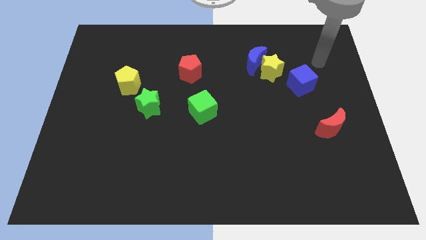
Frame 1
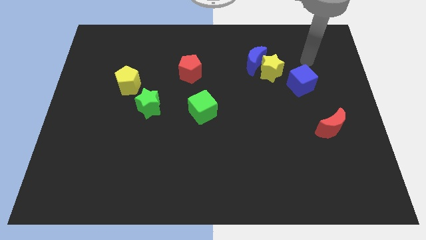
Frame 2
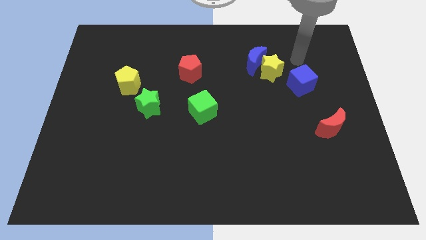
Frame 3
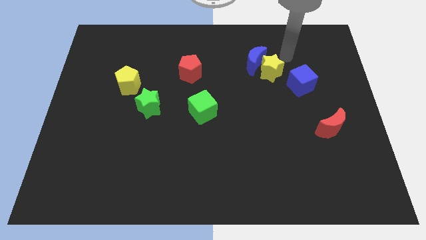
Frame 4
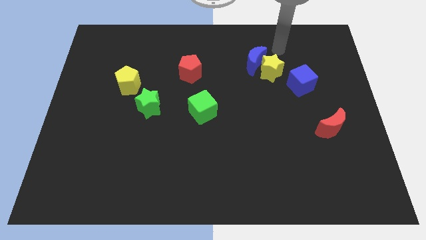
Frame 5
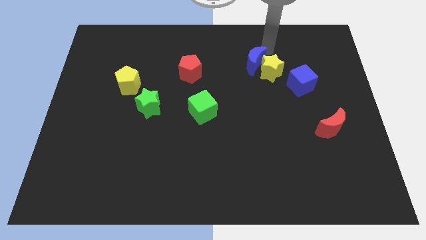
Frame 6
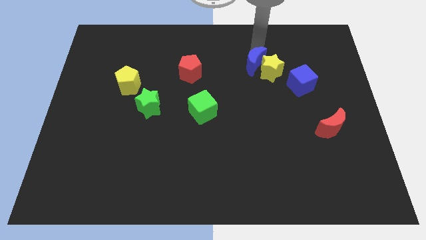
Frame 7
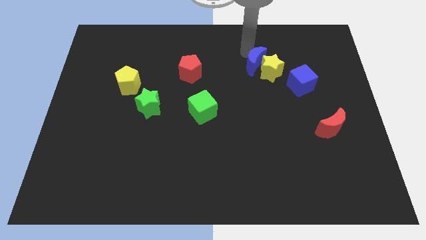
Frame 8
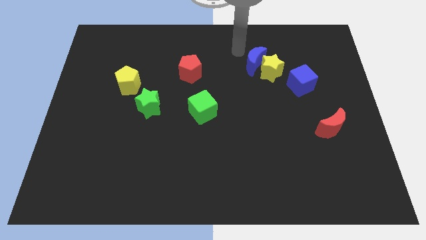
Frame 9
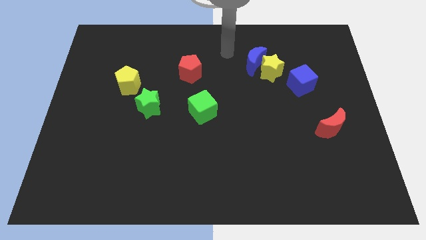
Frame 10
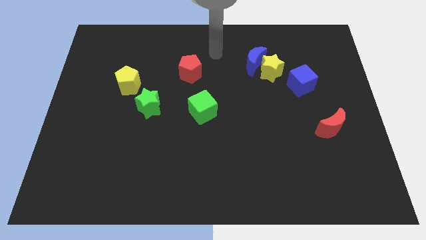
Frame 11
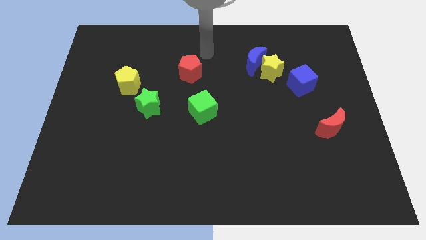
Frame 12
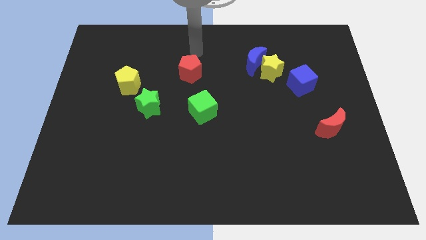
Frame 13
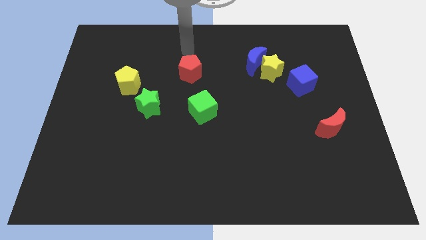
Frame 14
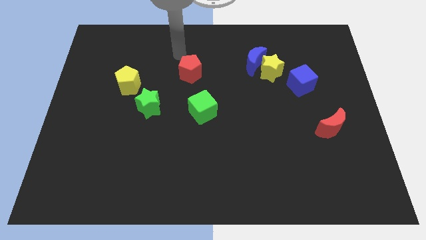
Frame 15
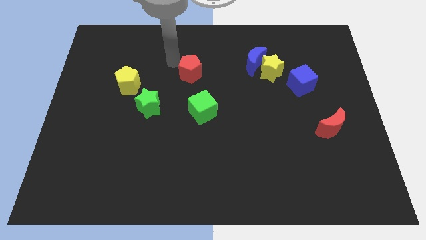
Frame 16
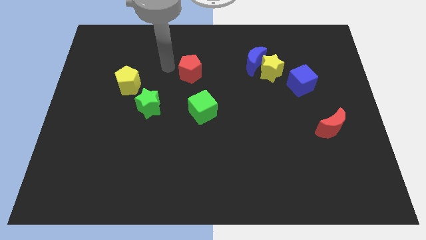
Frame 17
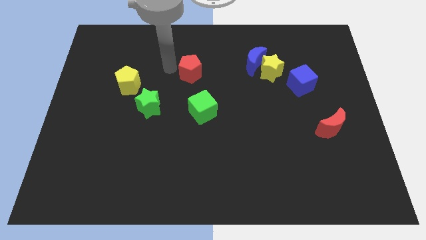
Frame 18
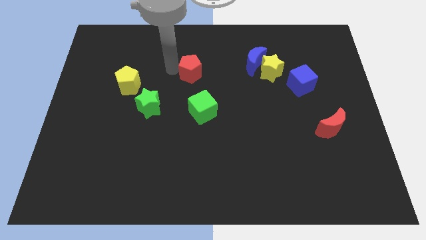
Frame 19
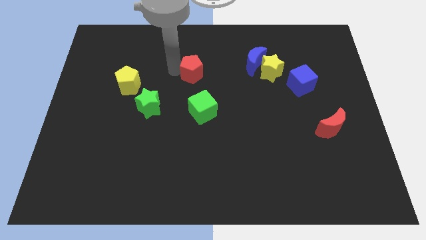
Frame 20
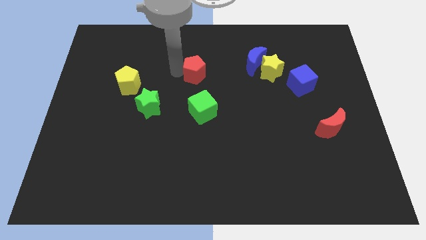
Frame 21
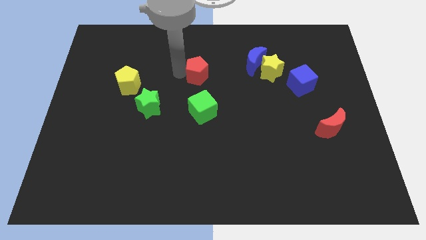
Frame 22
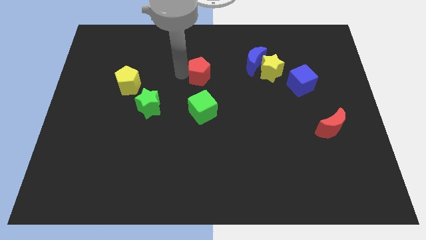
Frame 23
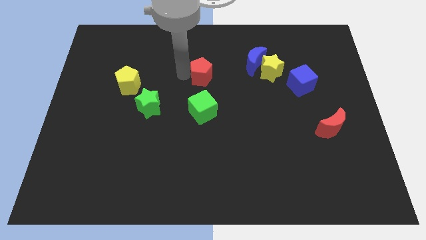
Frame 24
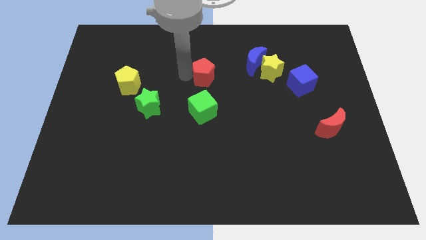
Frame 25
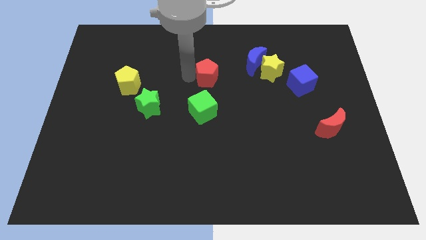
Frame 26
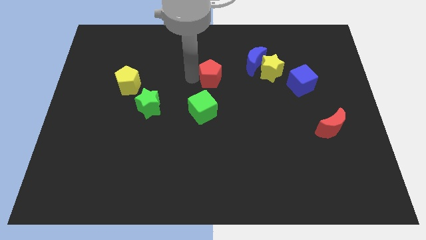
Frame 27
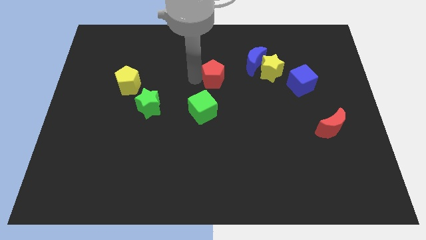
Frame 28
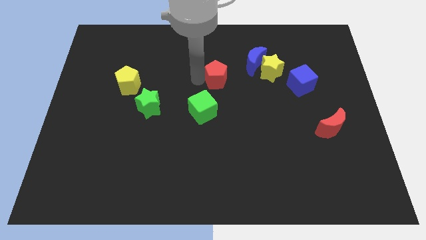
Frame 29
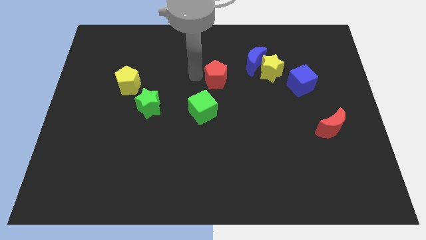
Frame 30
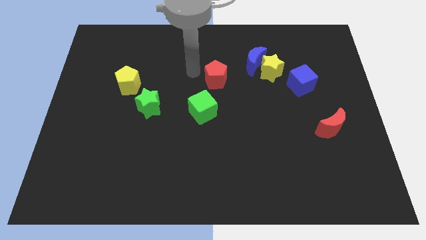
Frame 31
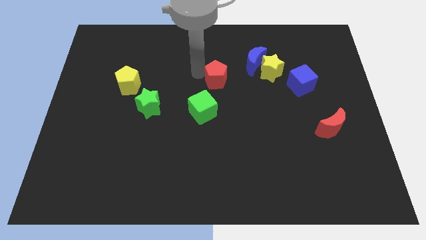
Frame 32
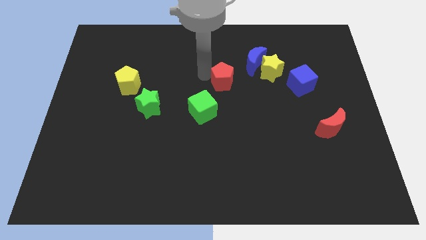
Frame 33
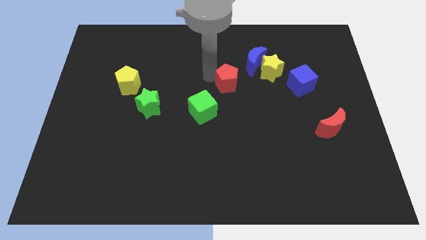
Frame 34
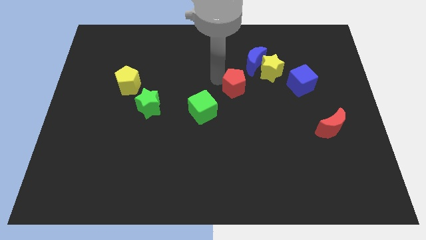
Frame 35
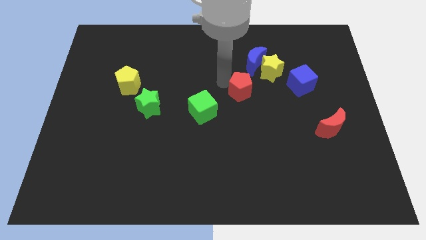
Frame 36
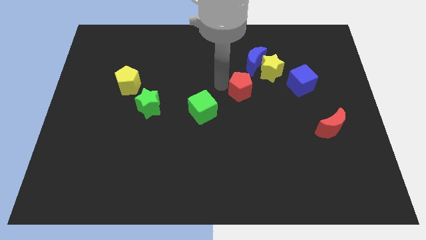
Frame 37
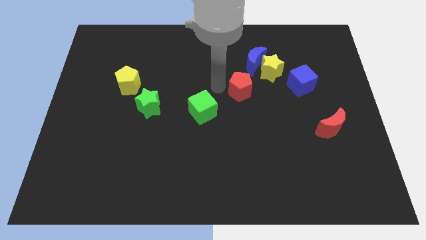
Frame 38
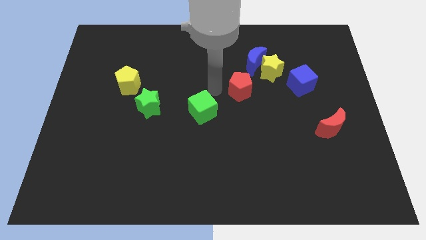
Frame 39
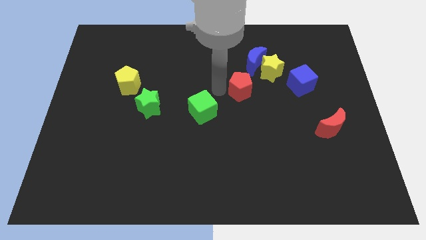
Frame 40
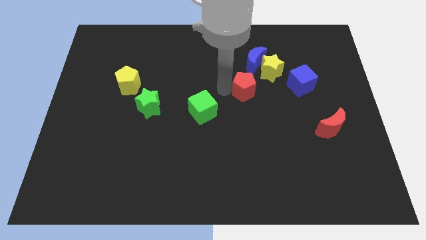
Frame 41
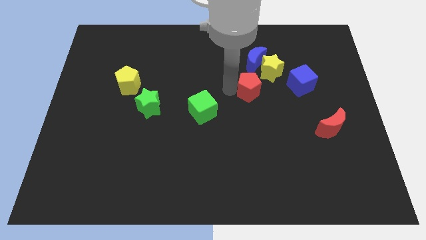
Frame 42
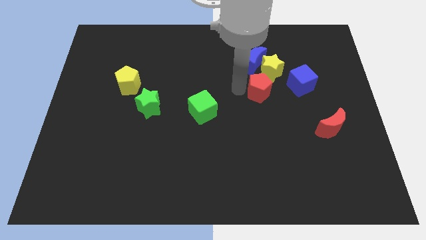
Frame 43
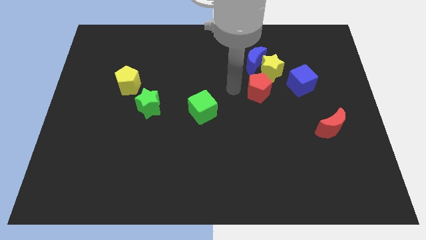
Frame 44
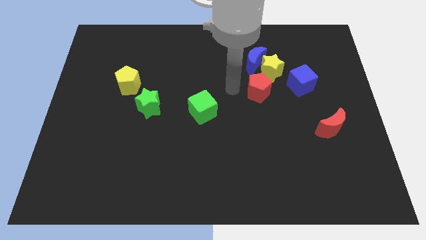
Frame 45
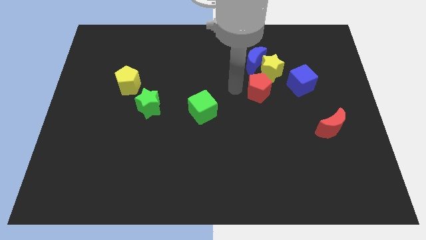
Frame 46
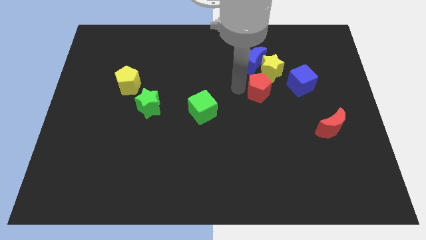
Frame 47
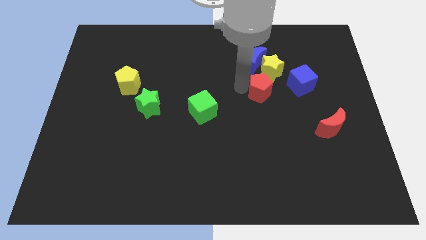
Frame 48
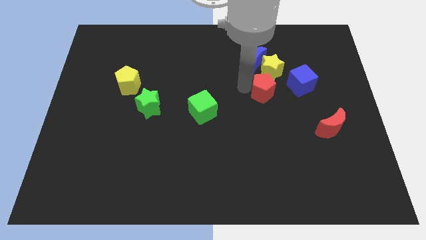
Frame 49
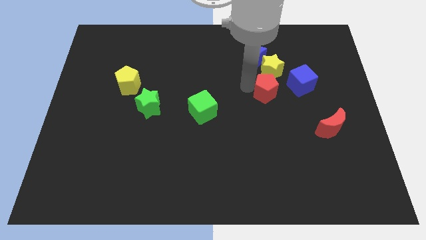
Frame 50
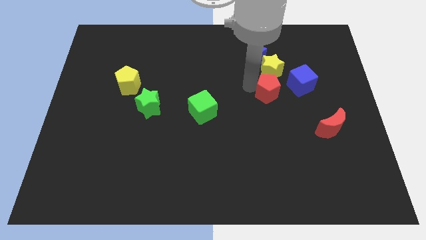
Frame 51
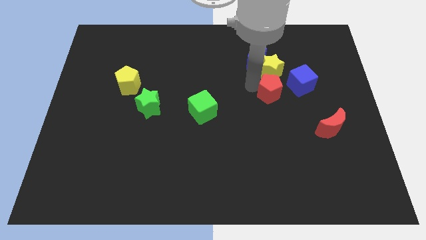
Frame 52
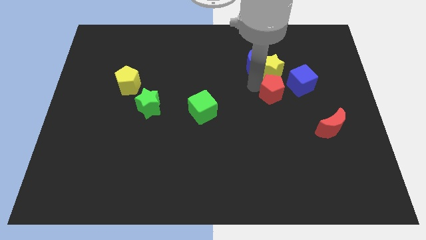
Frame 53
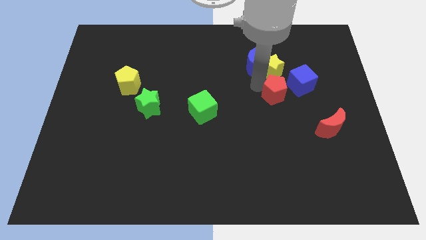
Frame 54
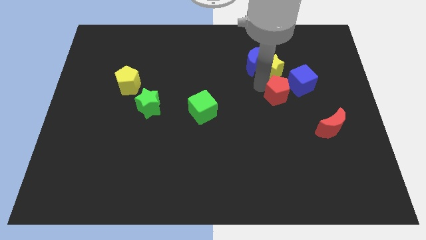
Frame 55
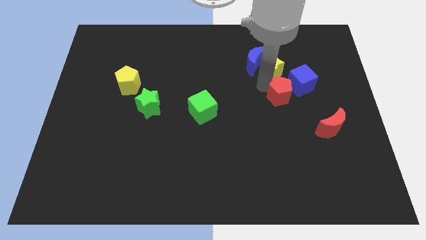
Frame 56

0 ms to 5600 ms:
move the red pentagon to the right

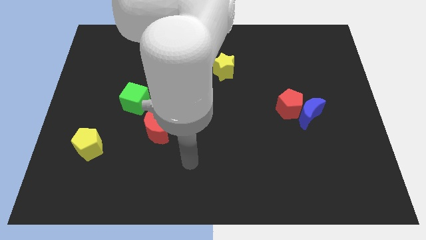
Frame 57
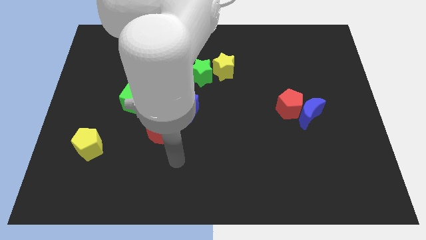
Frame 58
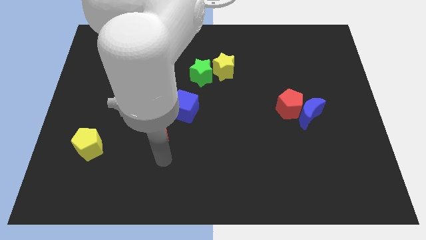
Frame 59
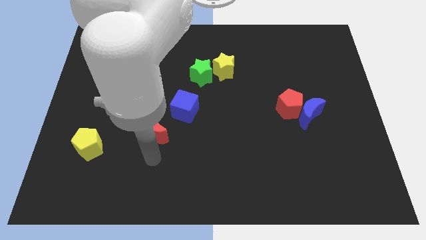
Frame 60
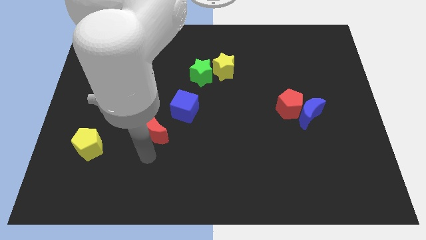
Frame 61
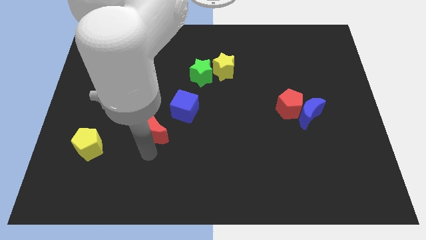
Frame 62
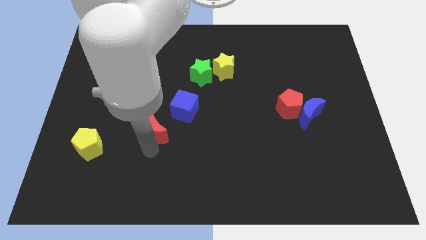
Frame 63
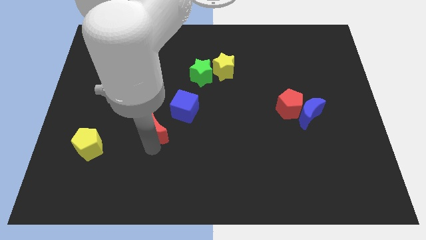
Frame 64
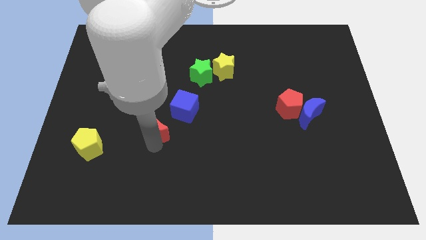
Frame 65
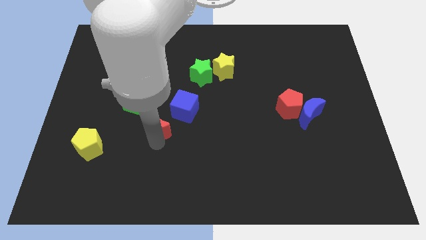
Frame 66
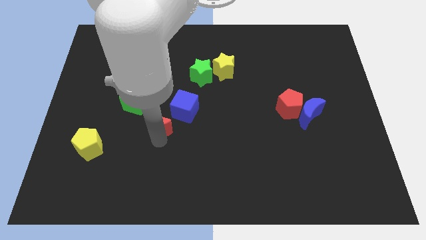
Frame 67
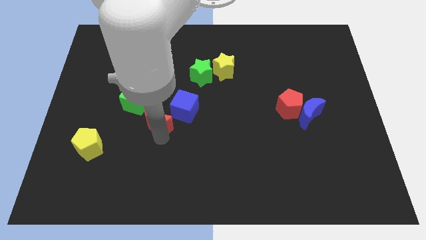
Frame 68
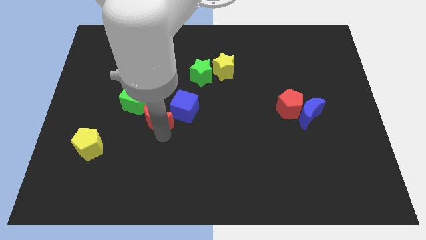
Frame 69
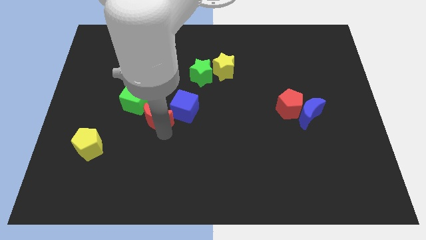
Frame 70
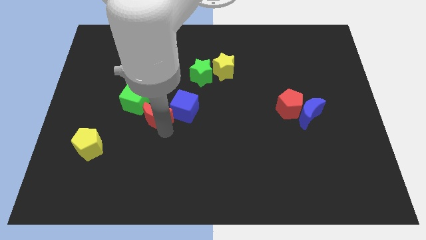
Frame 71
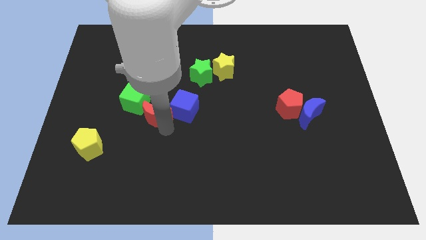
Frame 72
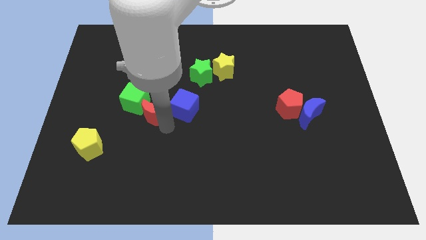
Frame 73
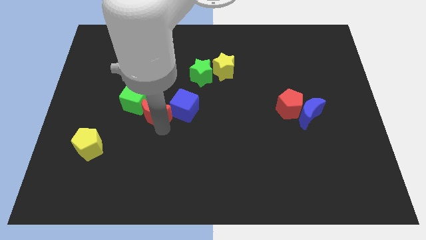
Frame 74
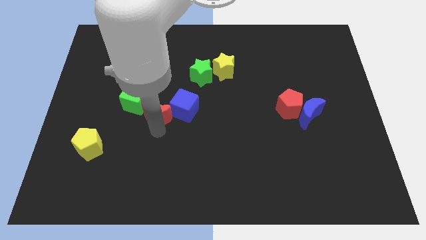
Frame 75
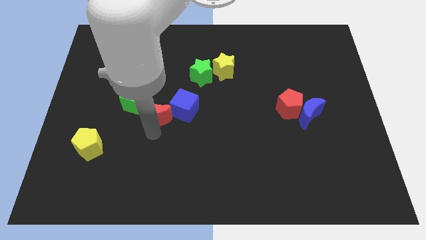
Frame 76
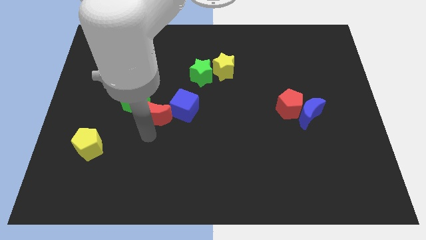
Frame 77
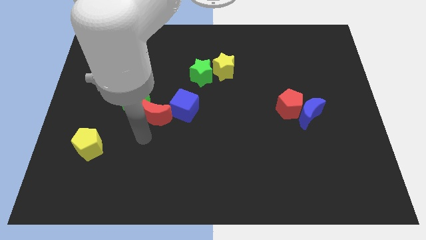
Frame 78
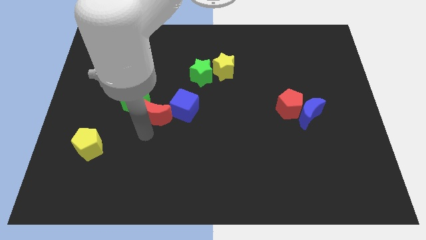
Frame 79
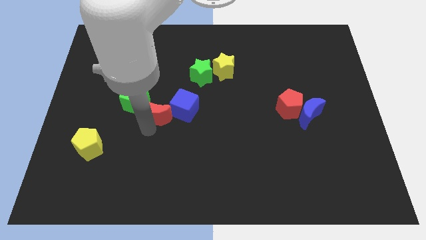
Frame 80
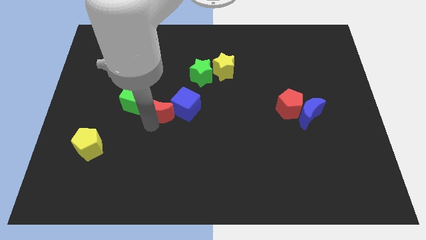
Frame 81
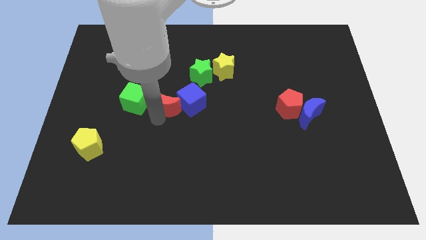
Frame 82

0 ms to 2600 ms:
slightly slide the red moon up
